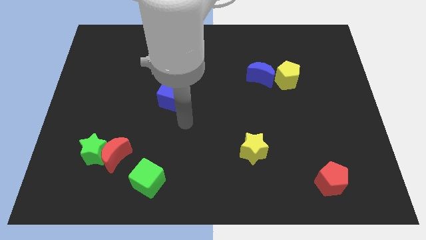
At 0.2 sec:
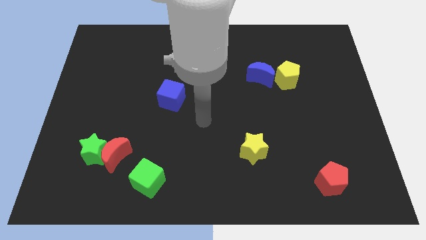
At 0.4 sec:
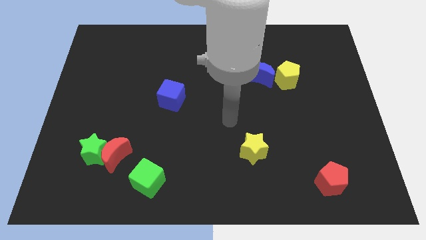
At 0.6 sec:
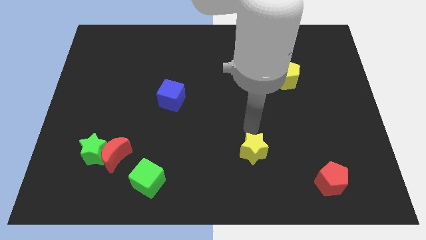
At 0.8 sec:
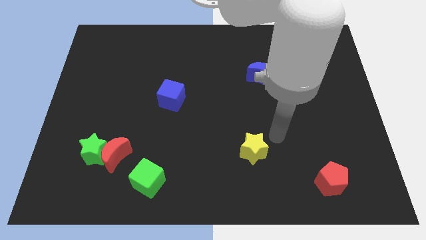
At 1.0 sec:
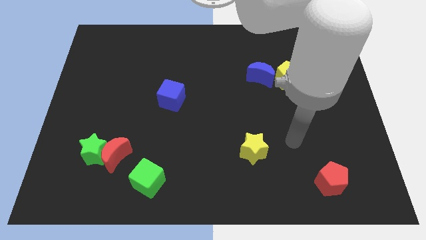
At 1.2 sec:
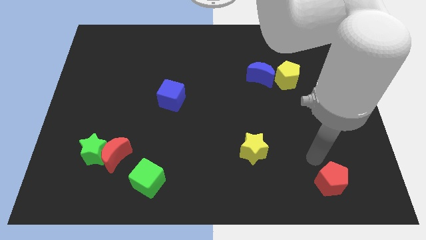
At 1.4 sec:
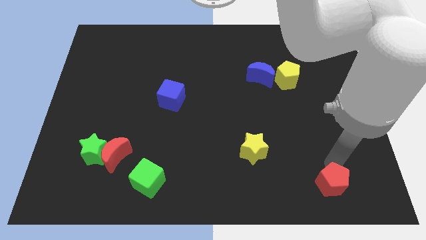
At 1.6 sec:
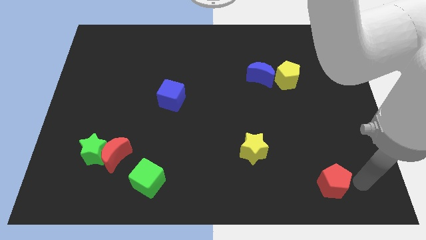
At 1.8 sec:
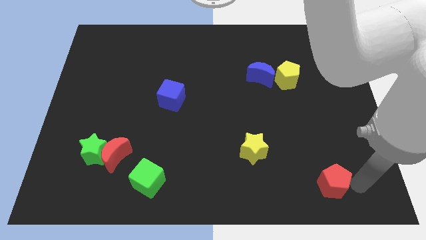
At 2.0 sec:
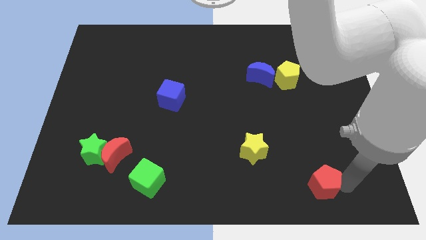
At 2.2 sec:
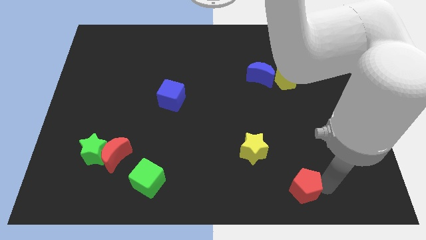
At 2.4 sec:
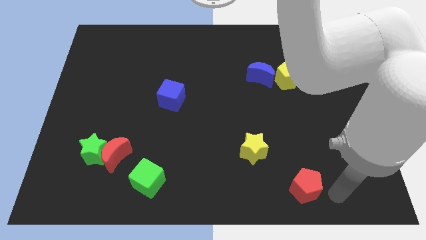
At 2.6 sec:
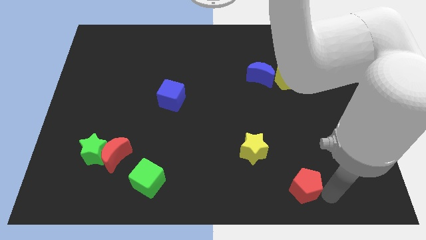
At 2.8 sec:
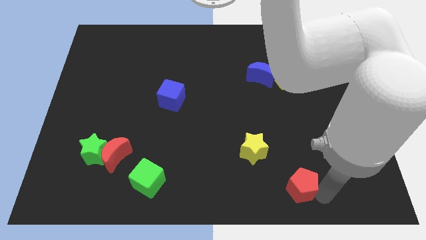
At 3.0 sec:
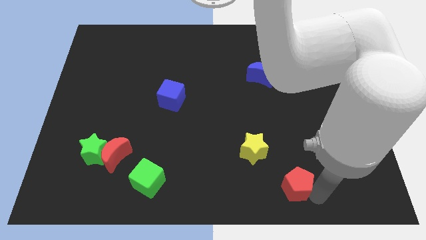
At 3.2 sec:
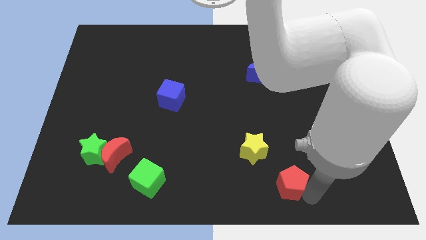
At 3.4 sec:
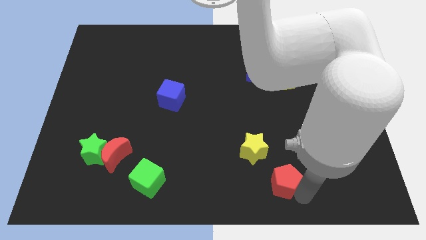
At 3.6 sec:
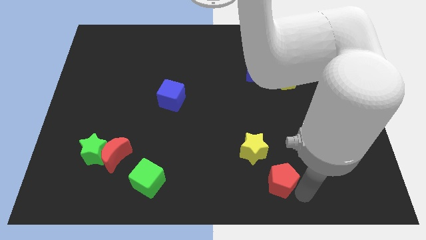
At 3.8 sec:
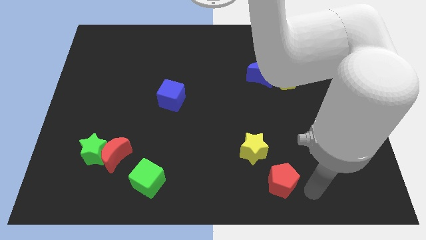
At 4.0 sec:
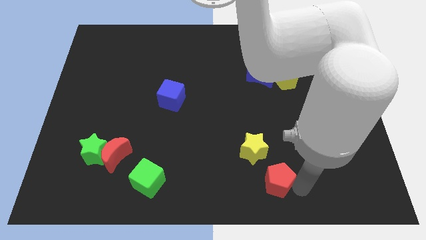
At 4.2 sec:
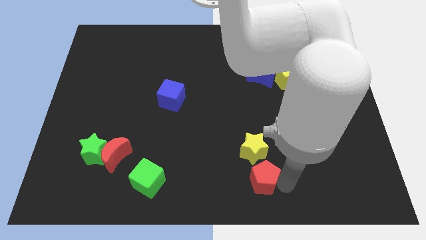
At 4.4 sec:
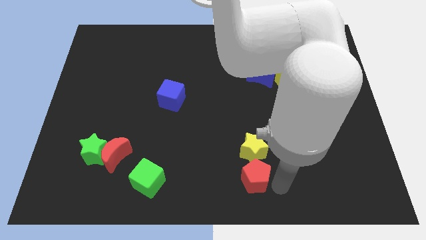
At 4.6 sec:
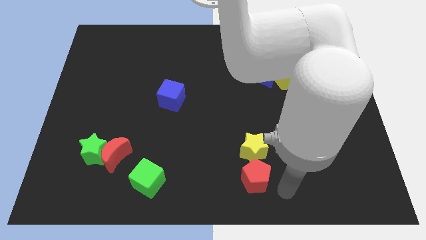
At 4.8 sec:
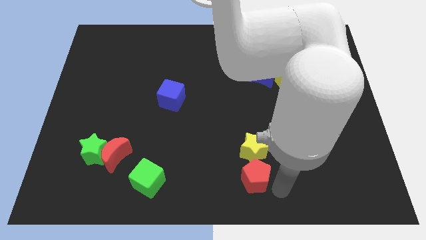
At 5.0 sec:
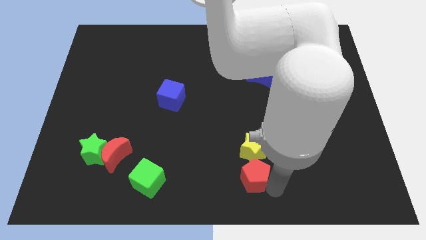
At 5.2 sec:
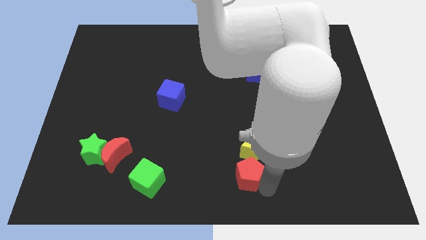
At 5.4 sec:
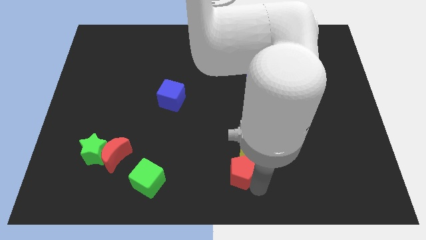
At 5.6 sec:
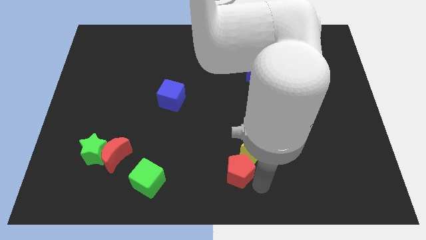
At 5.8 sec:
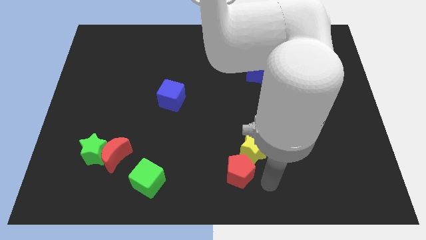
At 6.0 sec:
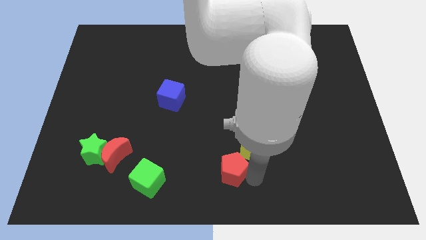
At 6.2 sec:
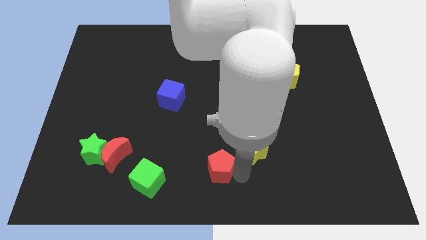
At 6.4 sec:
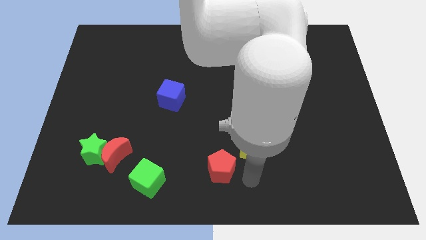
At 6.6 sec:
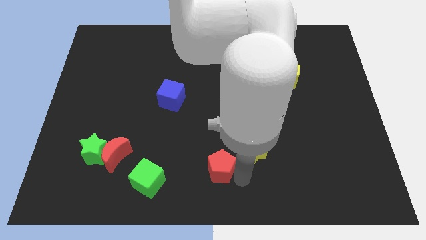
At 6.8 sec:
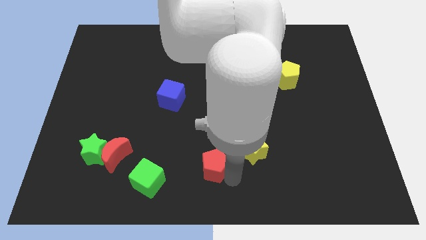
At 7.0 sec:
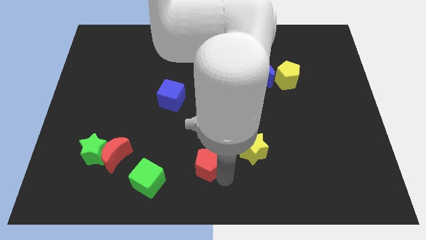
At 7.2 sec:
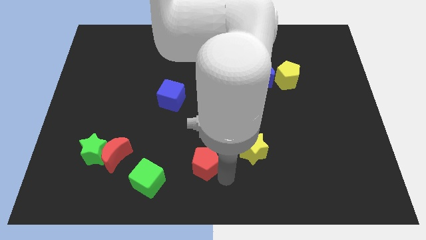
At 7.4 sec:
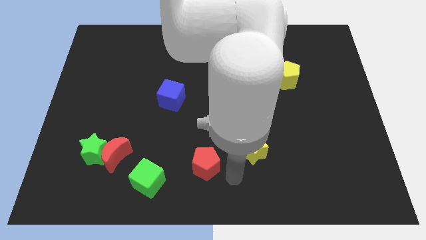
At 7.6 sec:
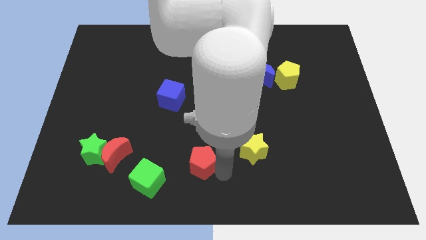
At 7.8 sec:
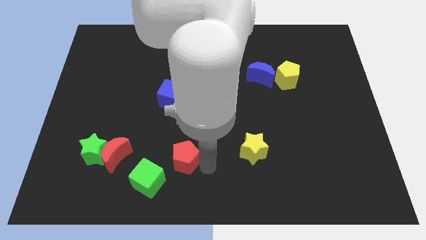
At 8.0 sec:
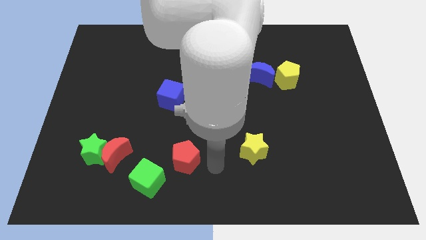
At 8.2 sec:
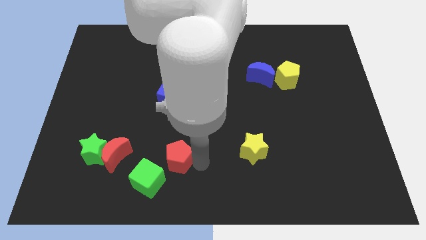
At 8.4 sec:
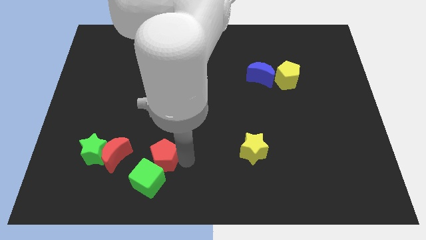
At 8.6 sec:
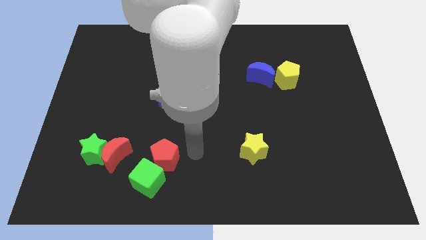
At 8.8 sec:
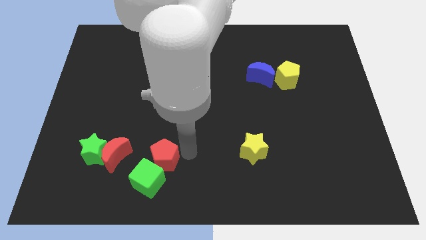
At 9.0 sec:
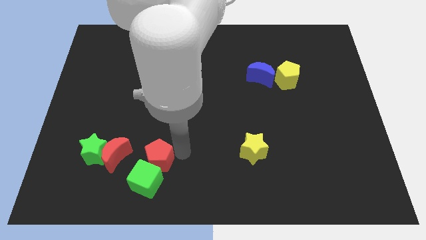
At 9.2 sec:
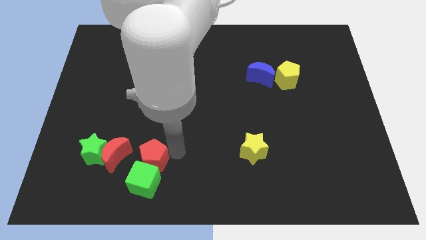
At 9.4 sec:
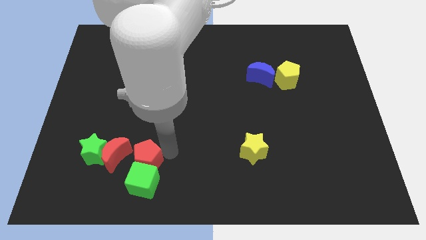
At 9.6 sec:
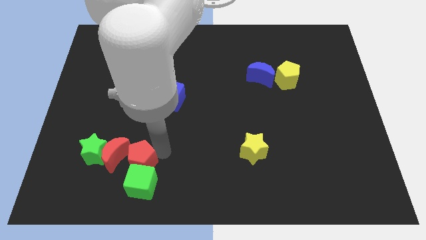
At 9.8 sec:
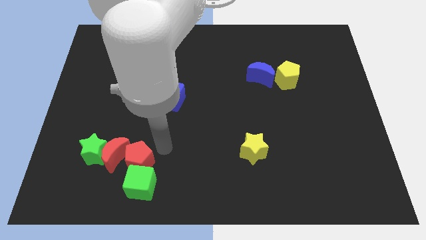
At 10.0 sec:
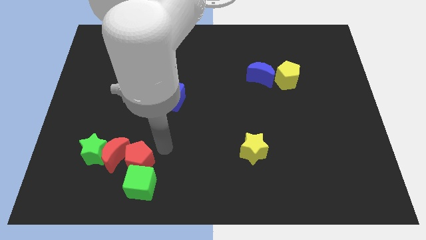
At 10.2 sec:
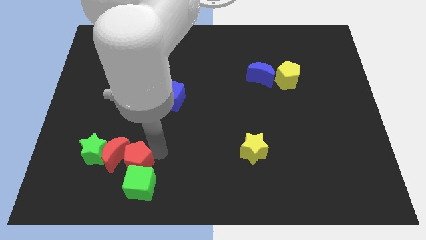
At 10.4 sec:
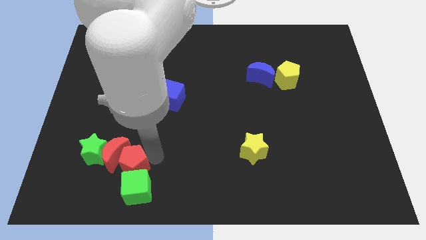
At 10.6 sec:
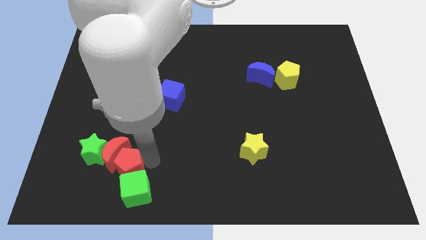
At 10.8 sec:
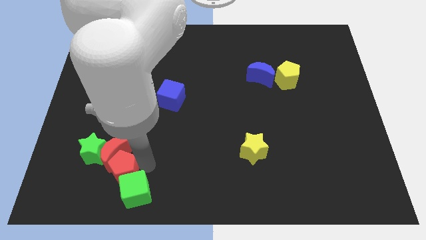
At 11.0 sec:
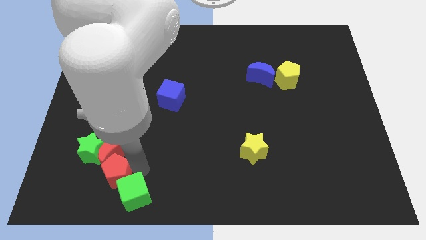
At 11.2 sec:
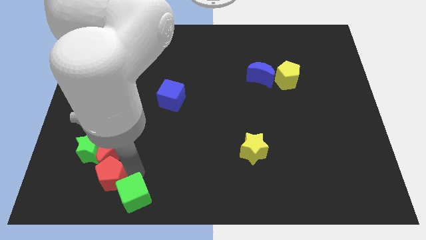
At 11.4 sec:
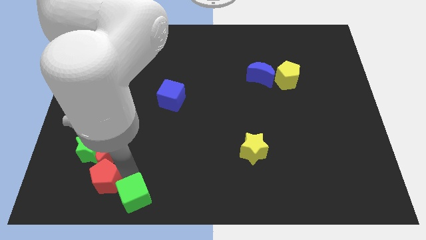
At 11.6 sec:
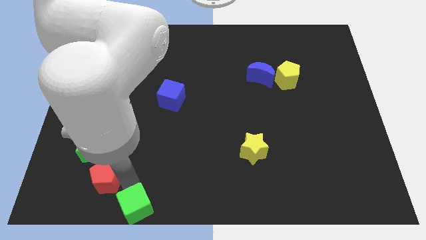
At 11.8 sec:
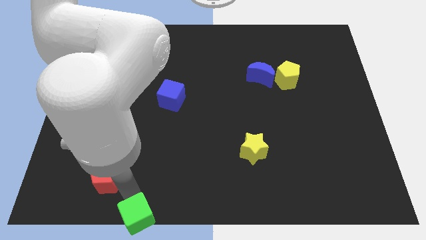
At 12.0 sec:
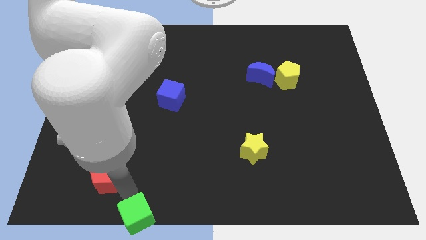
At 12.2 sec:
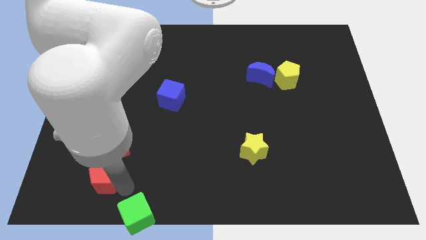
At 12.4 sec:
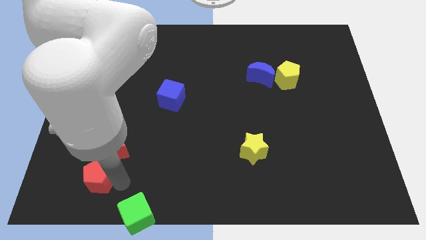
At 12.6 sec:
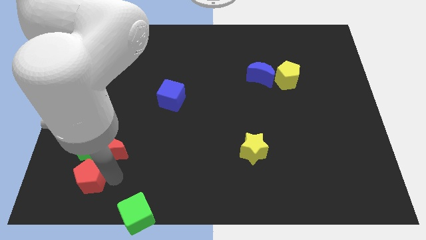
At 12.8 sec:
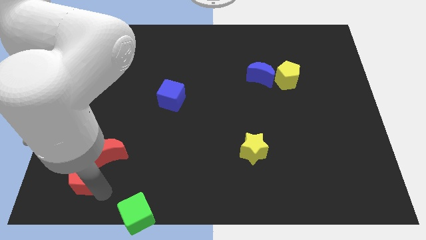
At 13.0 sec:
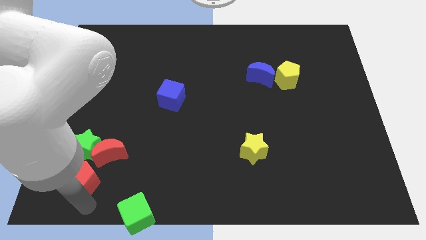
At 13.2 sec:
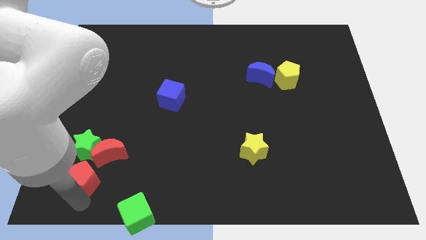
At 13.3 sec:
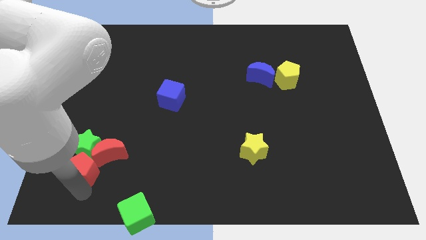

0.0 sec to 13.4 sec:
slide the red pentagon close to the green star

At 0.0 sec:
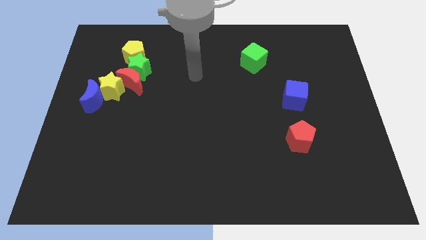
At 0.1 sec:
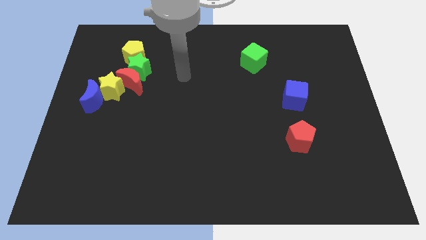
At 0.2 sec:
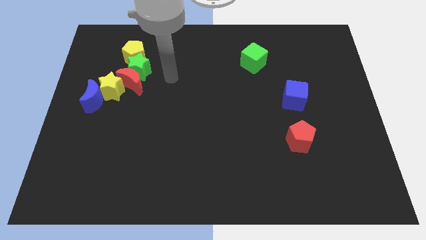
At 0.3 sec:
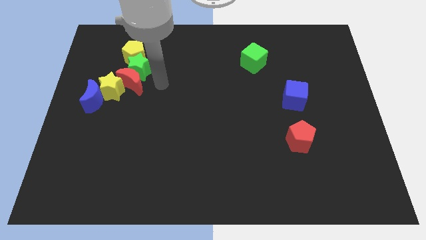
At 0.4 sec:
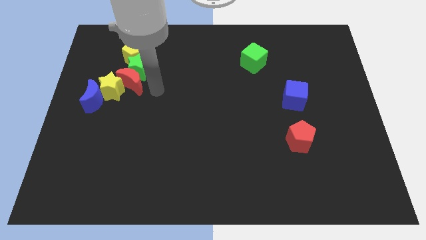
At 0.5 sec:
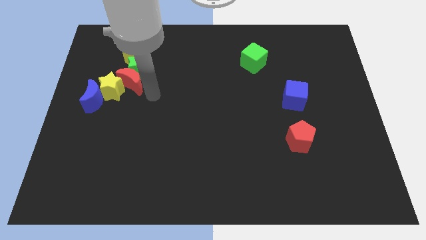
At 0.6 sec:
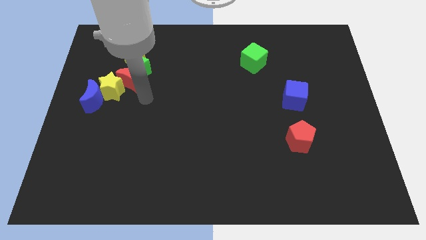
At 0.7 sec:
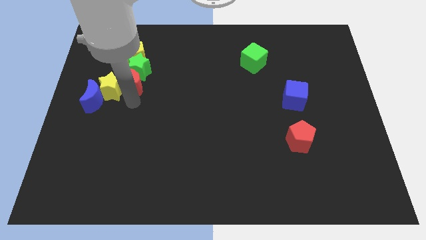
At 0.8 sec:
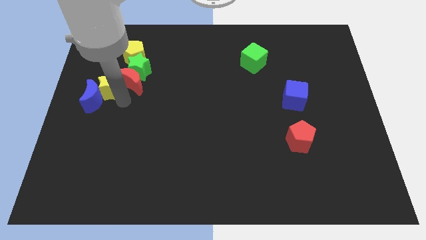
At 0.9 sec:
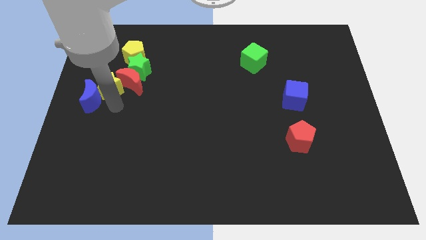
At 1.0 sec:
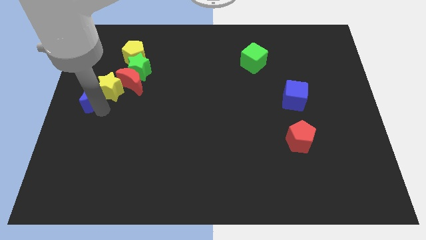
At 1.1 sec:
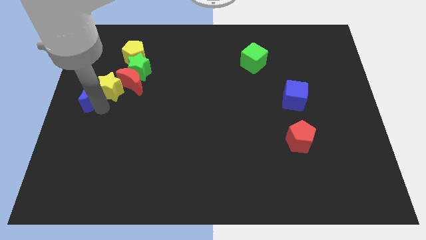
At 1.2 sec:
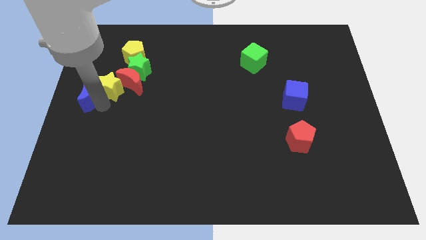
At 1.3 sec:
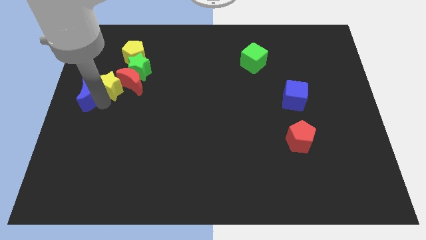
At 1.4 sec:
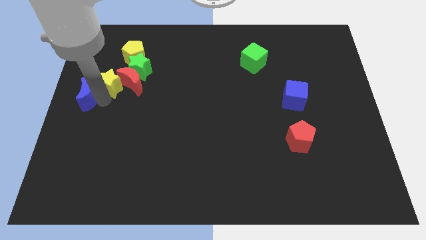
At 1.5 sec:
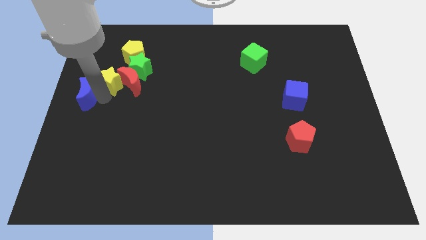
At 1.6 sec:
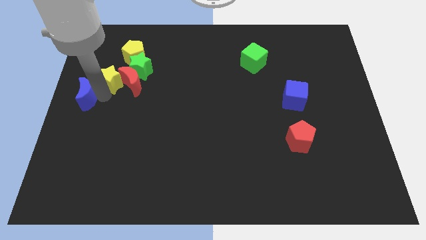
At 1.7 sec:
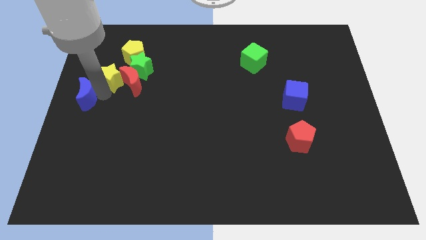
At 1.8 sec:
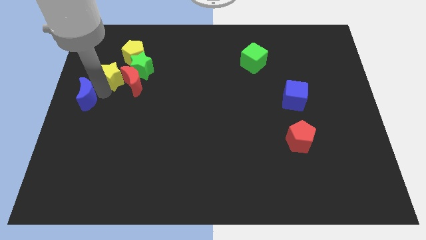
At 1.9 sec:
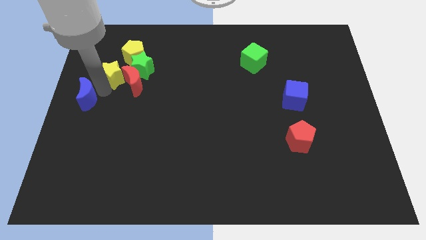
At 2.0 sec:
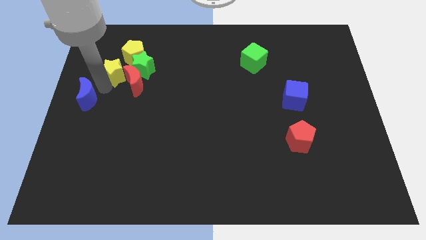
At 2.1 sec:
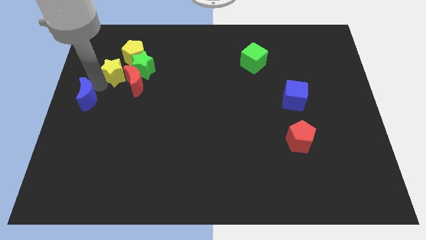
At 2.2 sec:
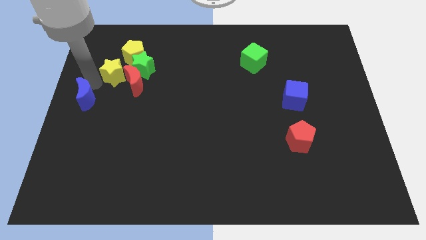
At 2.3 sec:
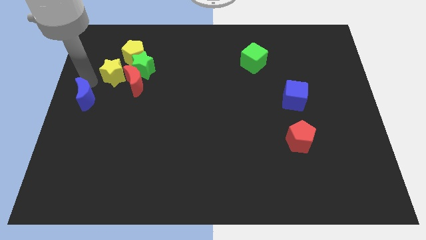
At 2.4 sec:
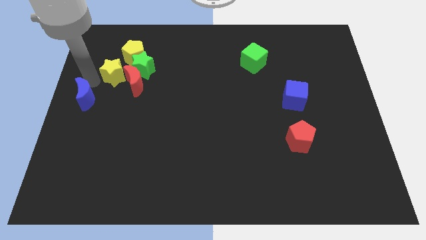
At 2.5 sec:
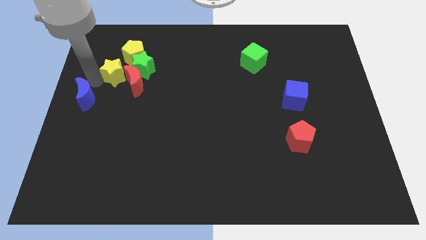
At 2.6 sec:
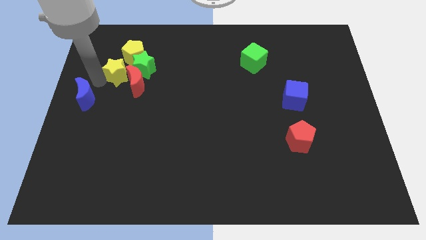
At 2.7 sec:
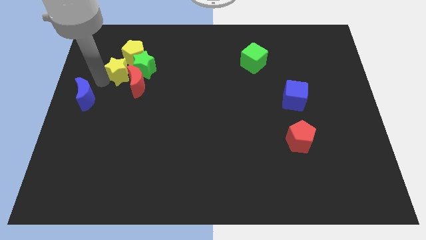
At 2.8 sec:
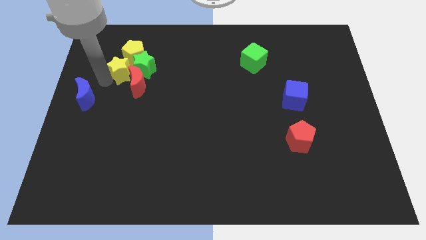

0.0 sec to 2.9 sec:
slide the yellow star to the green star
